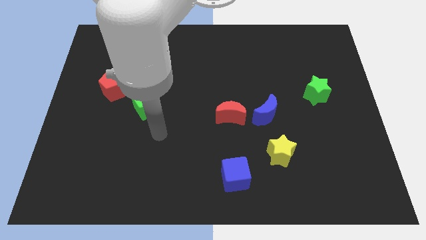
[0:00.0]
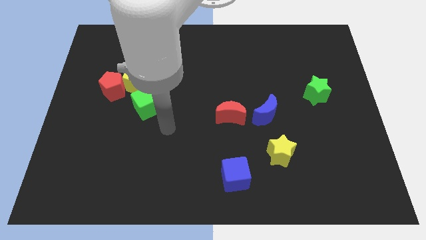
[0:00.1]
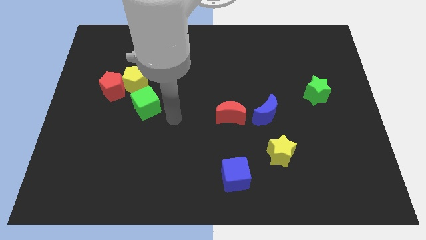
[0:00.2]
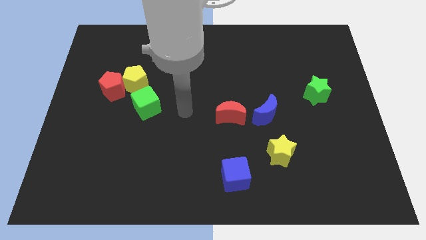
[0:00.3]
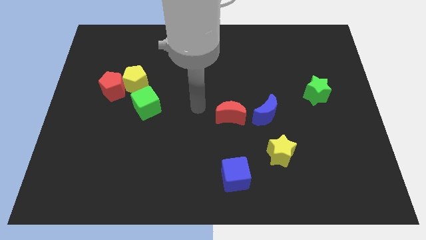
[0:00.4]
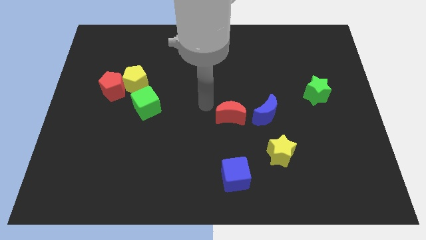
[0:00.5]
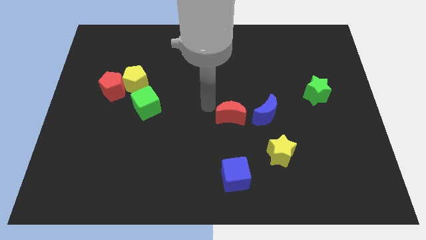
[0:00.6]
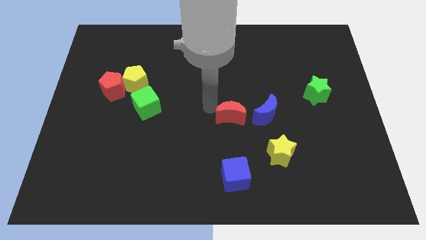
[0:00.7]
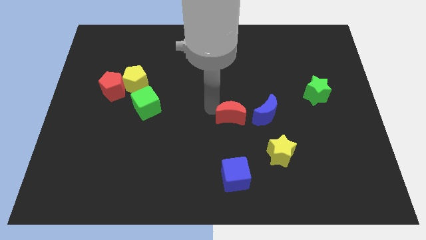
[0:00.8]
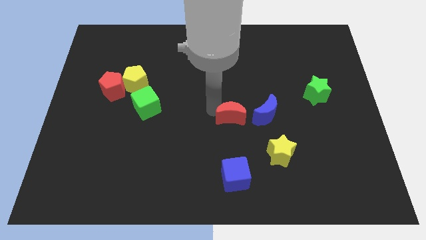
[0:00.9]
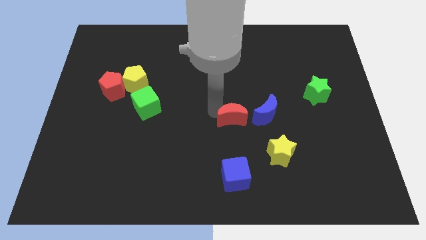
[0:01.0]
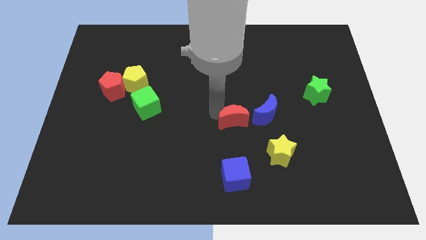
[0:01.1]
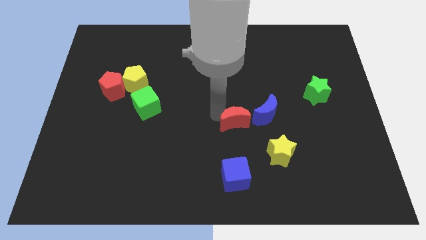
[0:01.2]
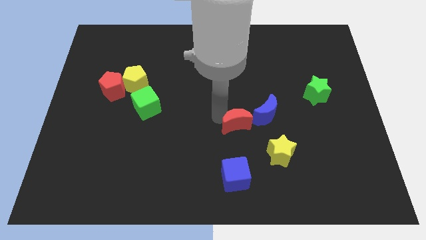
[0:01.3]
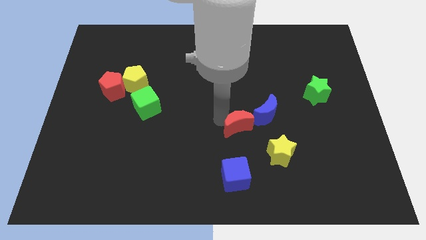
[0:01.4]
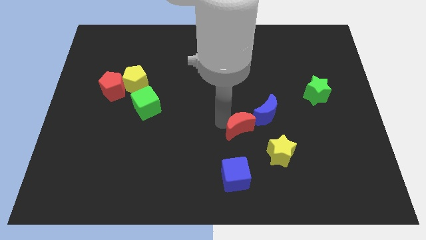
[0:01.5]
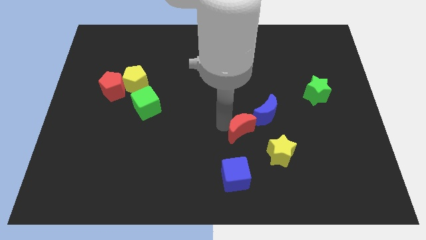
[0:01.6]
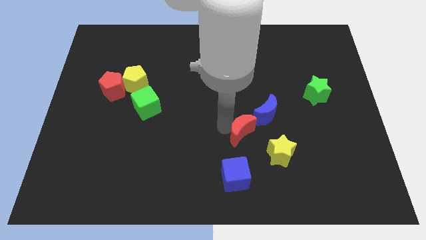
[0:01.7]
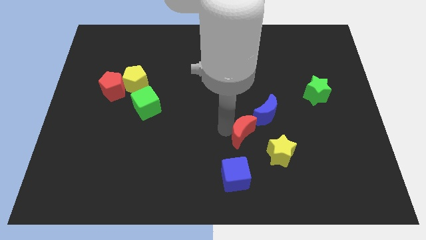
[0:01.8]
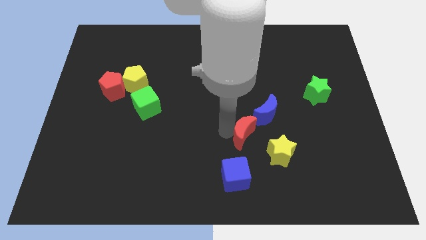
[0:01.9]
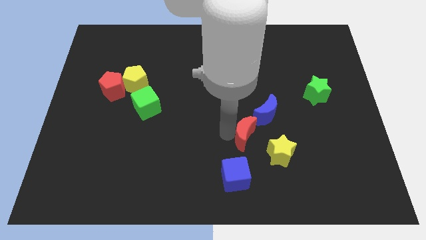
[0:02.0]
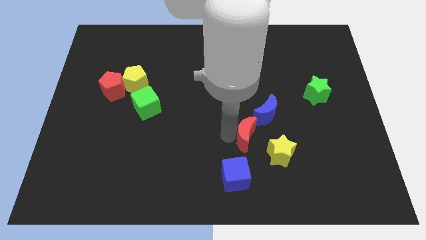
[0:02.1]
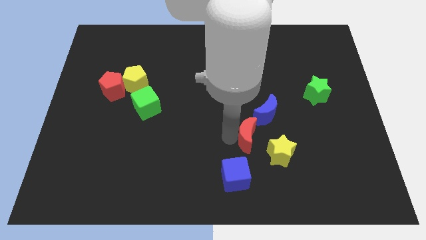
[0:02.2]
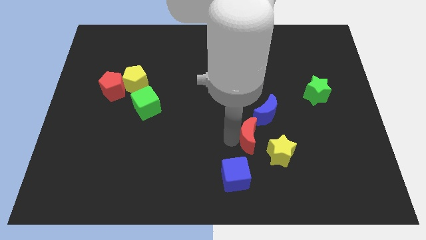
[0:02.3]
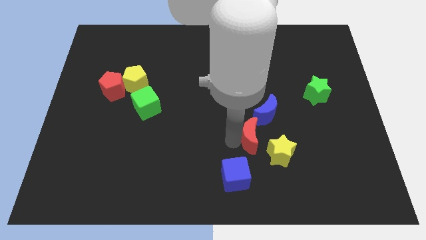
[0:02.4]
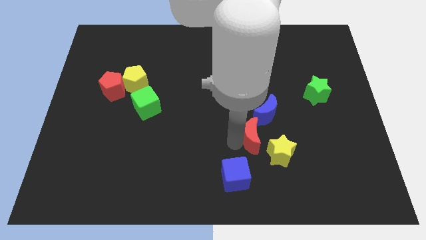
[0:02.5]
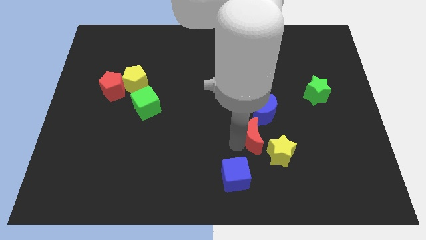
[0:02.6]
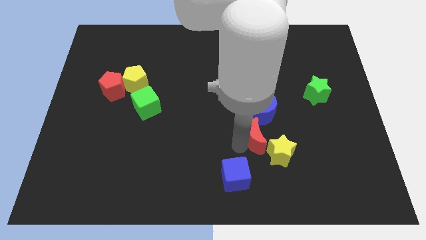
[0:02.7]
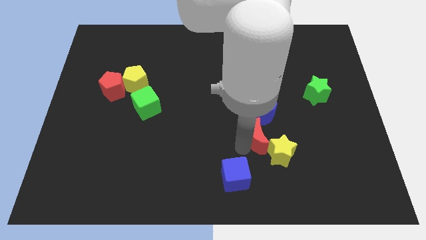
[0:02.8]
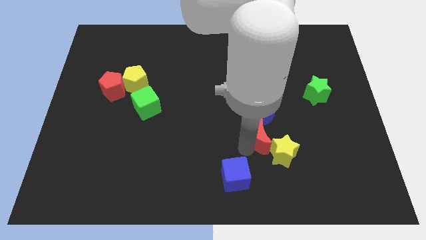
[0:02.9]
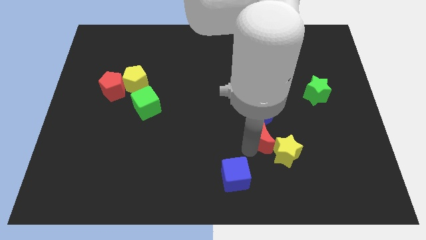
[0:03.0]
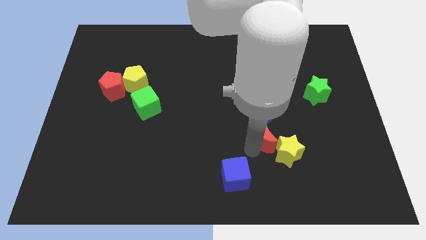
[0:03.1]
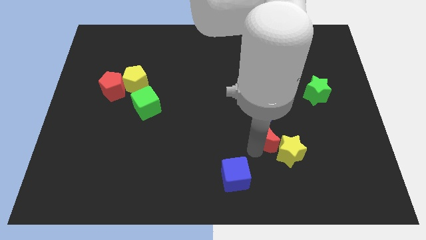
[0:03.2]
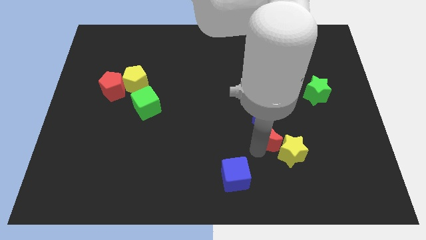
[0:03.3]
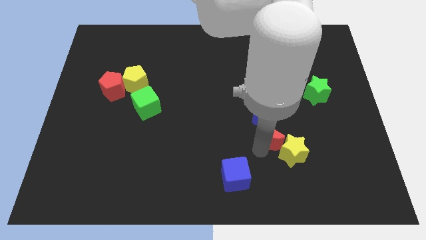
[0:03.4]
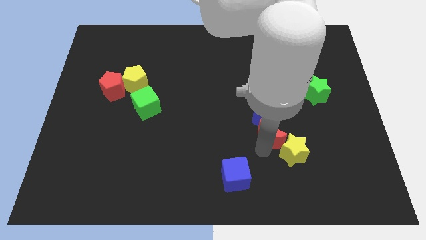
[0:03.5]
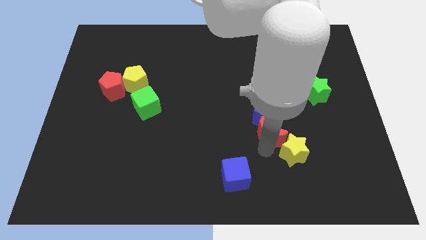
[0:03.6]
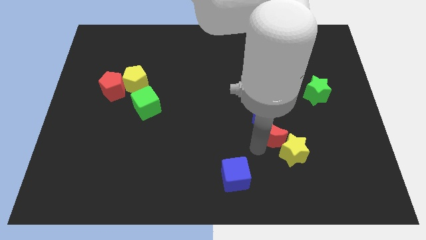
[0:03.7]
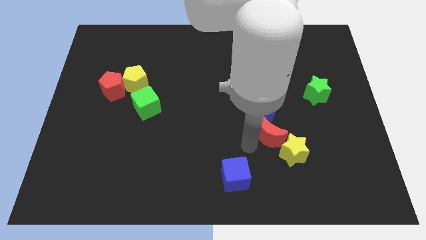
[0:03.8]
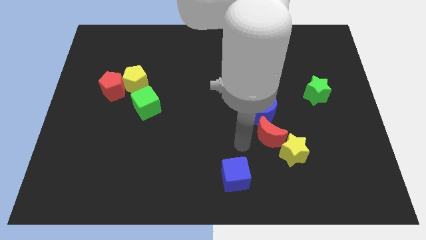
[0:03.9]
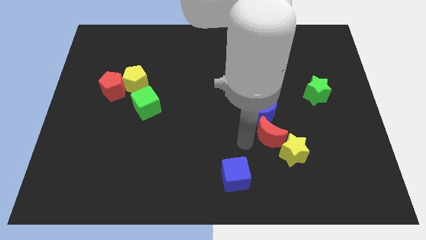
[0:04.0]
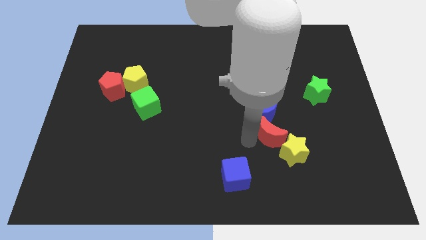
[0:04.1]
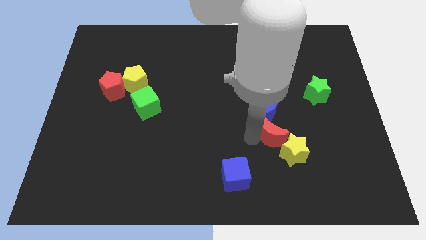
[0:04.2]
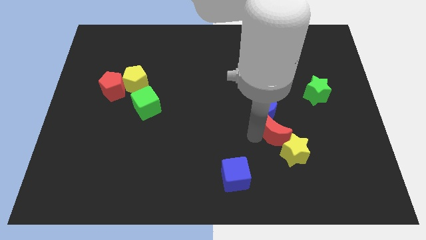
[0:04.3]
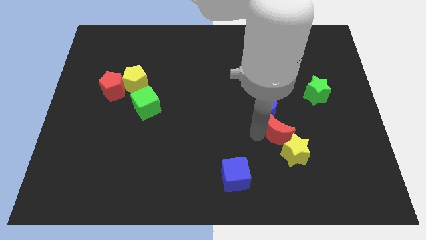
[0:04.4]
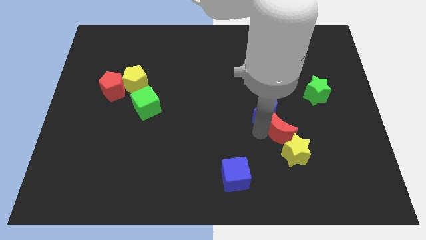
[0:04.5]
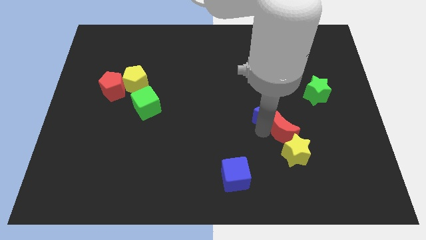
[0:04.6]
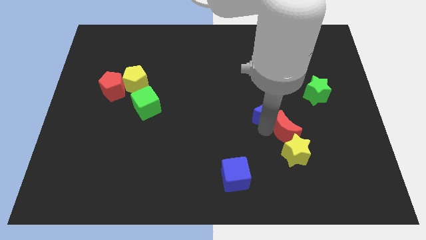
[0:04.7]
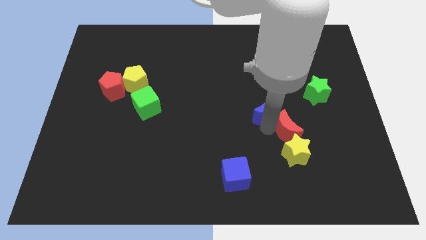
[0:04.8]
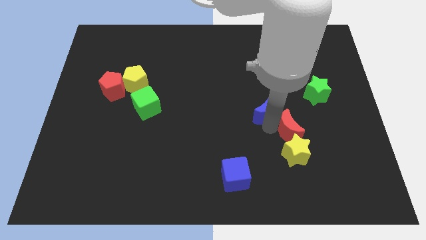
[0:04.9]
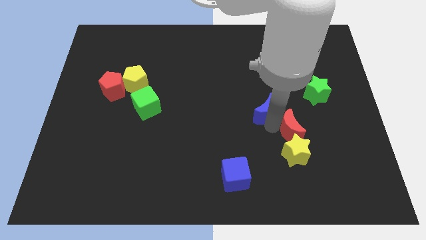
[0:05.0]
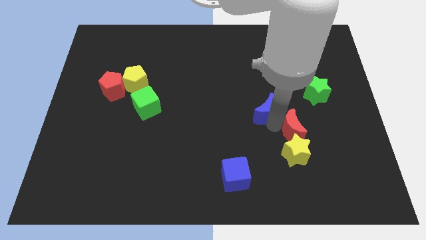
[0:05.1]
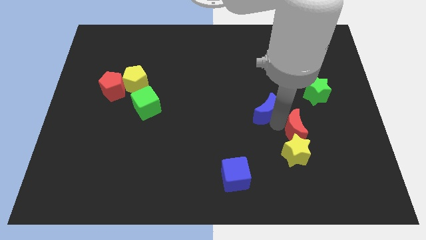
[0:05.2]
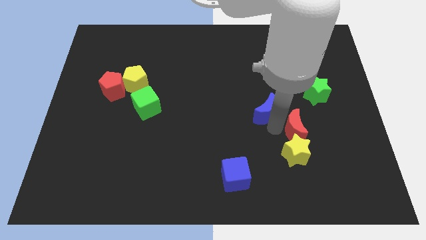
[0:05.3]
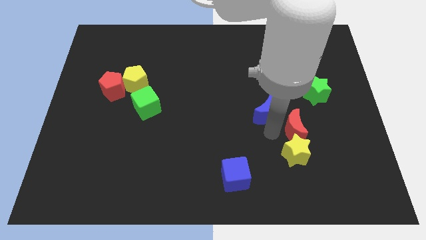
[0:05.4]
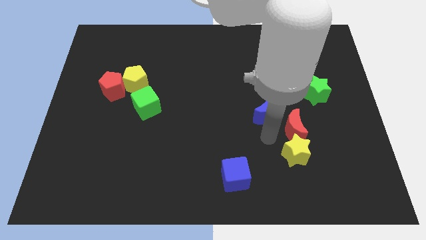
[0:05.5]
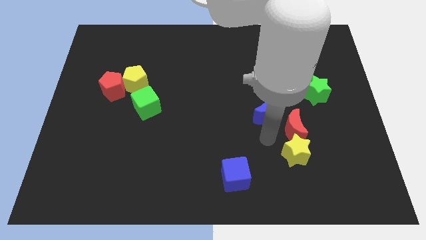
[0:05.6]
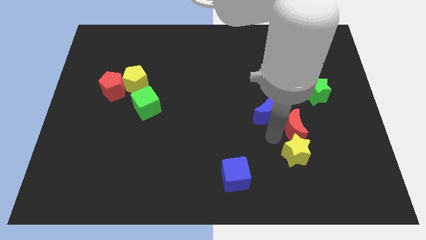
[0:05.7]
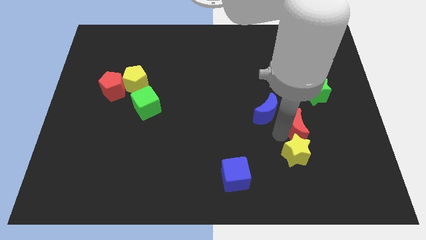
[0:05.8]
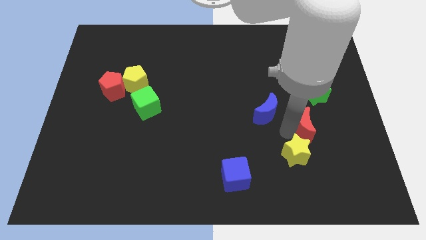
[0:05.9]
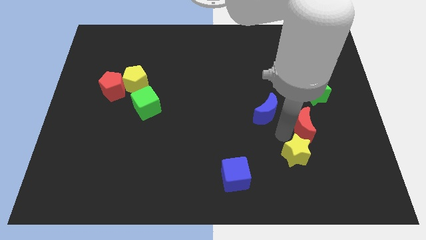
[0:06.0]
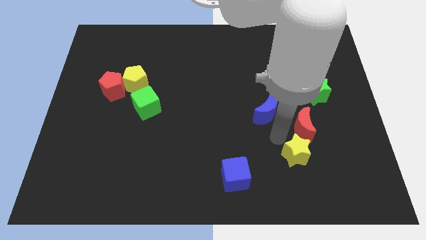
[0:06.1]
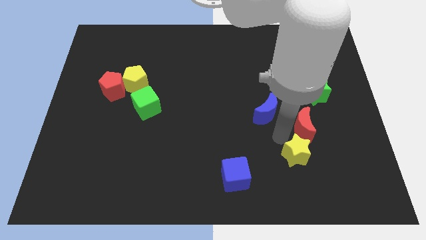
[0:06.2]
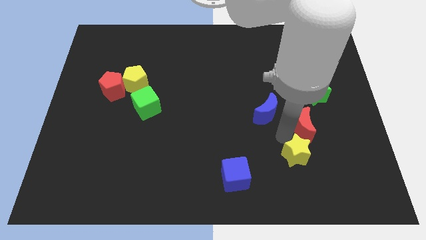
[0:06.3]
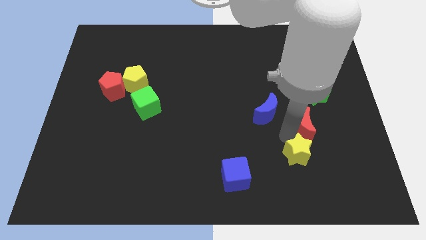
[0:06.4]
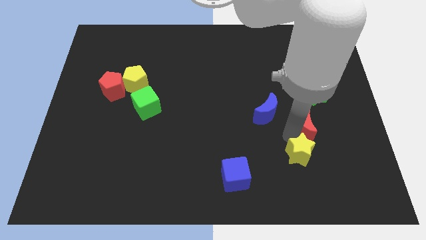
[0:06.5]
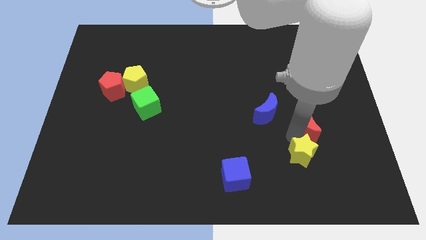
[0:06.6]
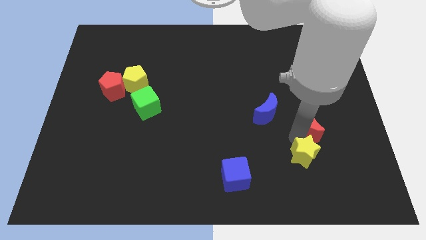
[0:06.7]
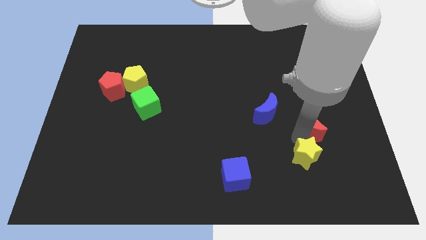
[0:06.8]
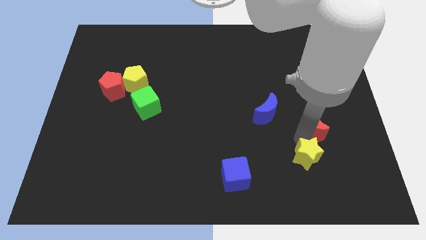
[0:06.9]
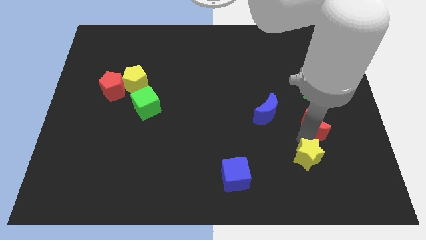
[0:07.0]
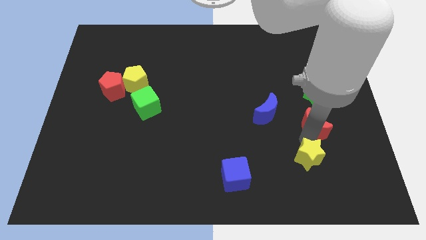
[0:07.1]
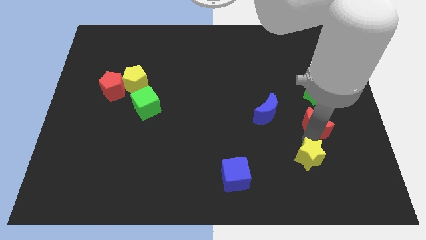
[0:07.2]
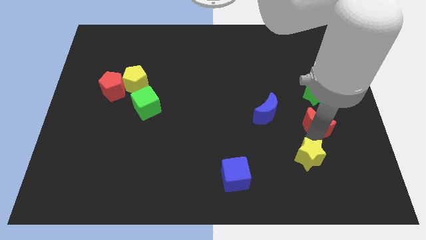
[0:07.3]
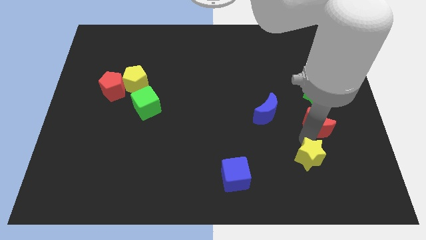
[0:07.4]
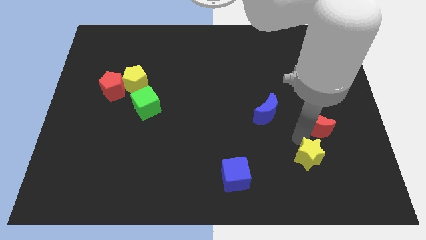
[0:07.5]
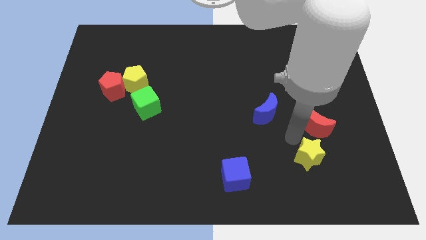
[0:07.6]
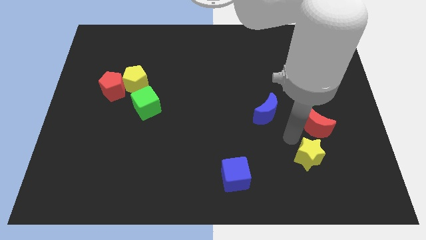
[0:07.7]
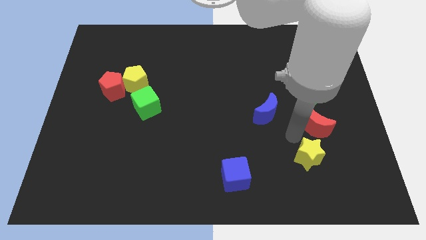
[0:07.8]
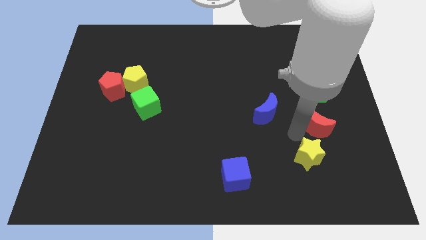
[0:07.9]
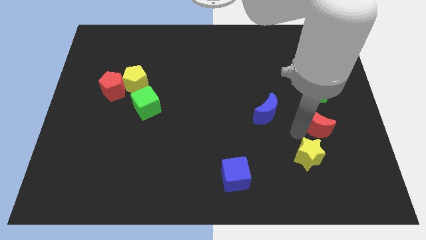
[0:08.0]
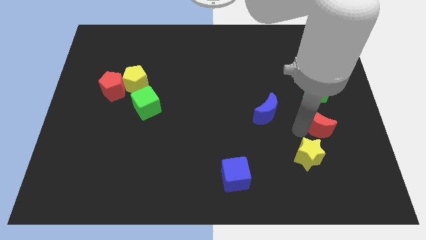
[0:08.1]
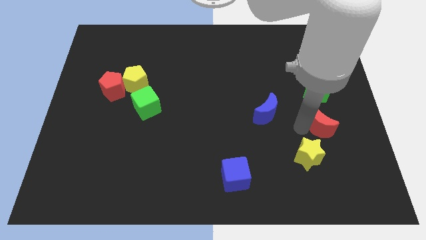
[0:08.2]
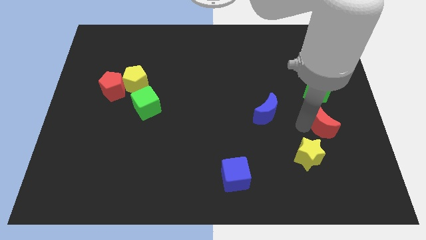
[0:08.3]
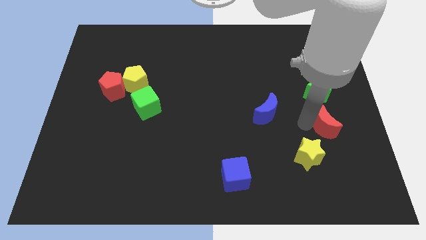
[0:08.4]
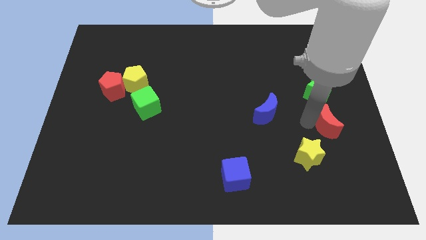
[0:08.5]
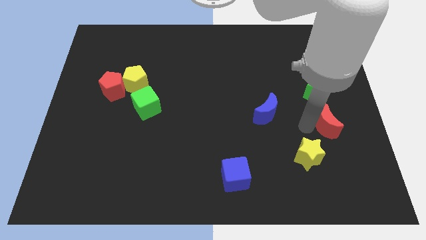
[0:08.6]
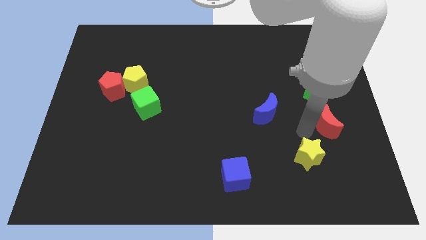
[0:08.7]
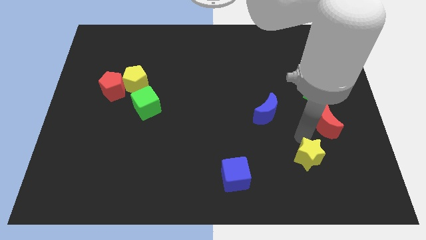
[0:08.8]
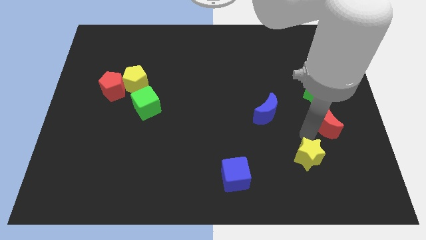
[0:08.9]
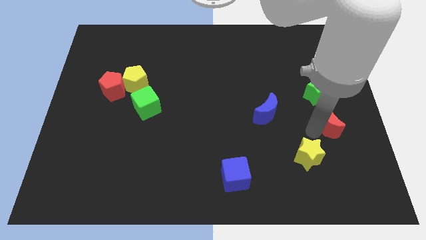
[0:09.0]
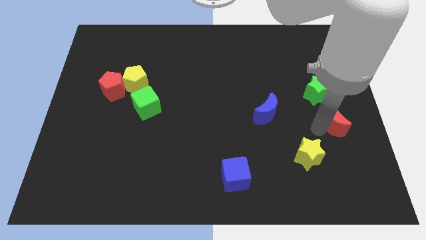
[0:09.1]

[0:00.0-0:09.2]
move the red moon to the right side
